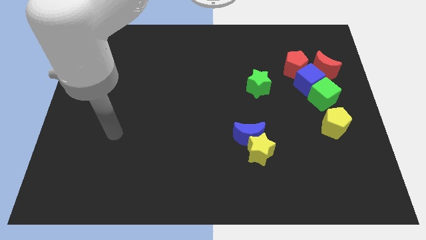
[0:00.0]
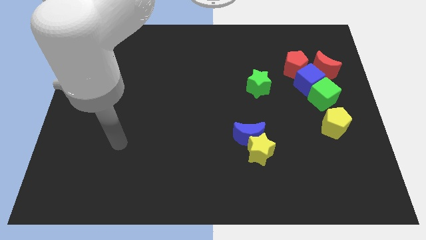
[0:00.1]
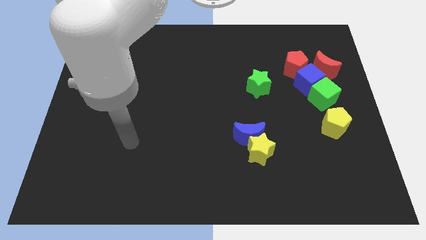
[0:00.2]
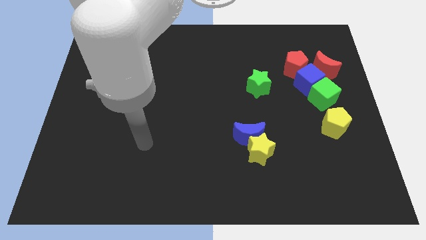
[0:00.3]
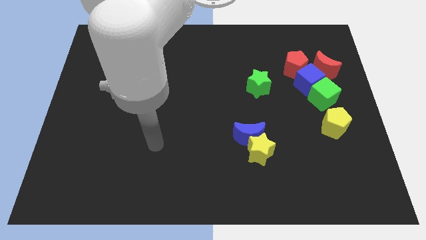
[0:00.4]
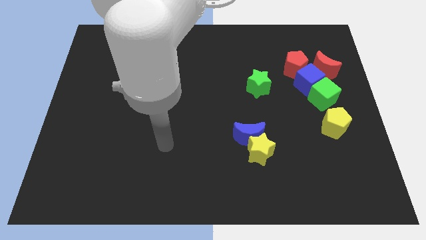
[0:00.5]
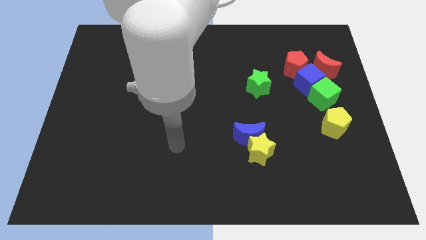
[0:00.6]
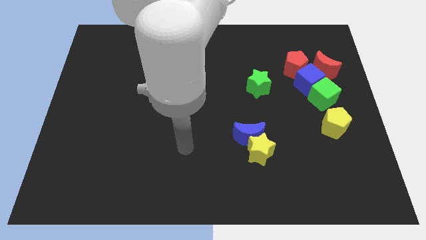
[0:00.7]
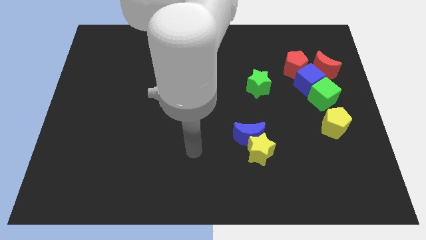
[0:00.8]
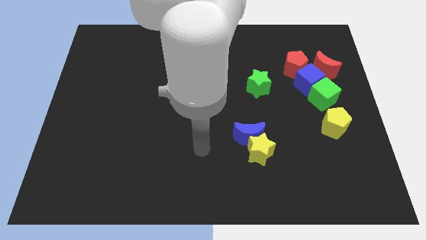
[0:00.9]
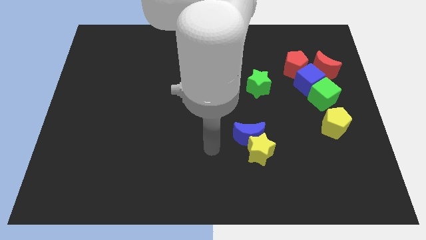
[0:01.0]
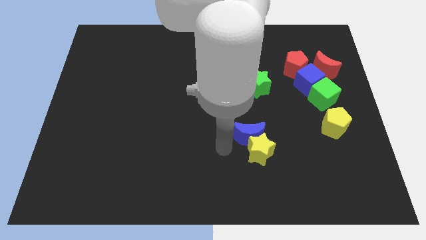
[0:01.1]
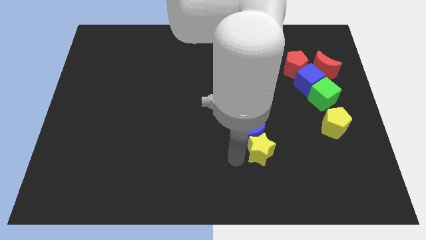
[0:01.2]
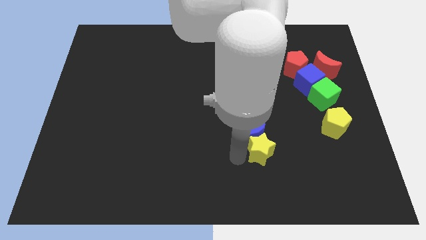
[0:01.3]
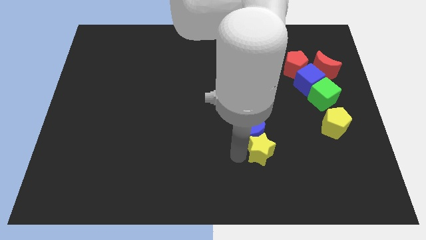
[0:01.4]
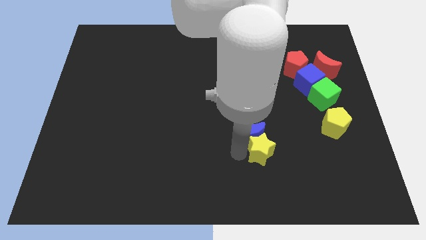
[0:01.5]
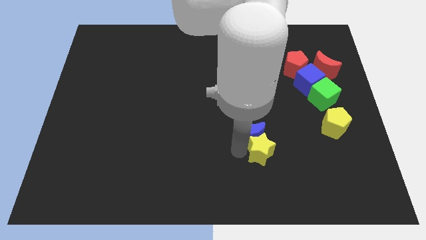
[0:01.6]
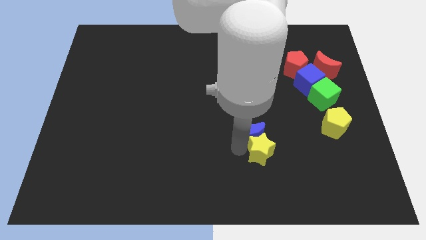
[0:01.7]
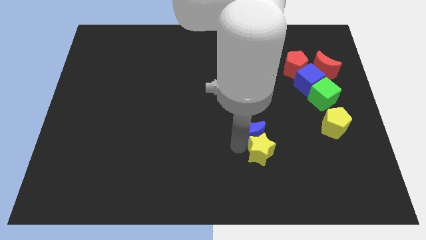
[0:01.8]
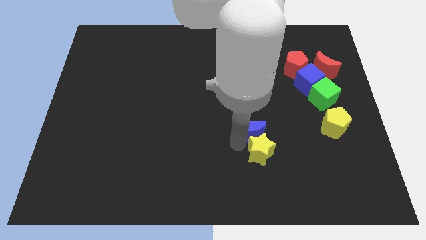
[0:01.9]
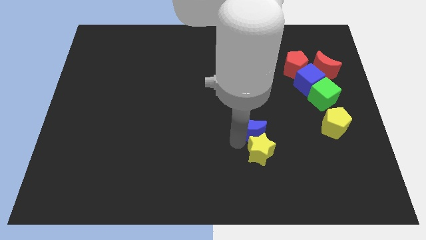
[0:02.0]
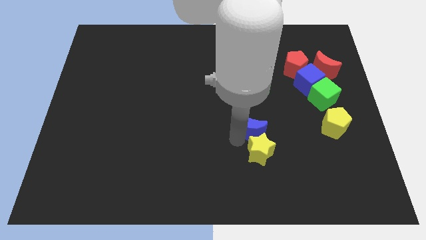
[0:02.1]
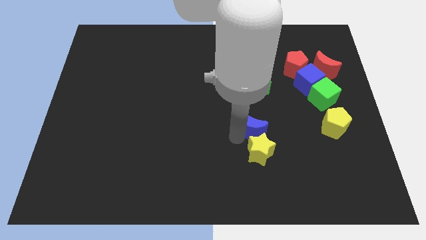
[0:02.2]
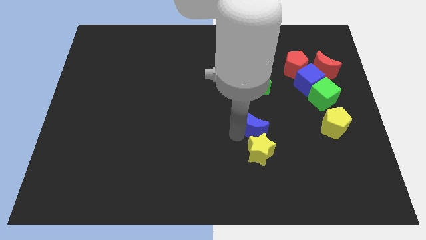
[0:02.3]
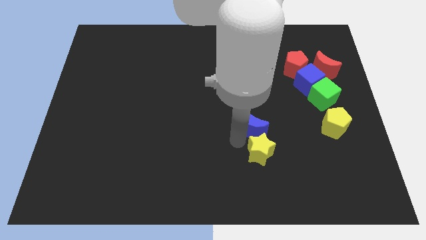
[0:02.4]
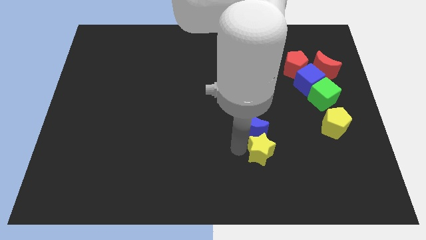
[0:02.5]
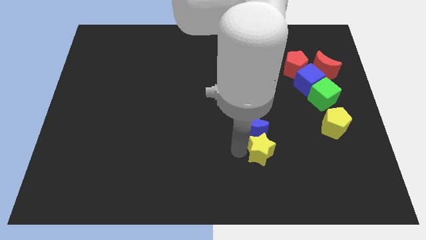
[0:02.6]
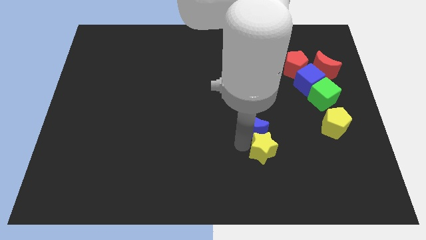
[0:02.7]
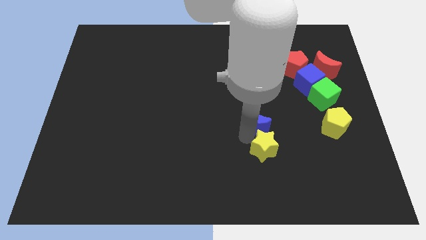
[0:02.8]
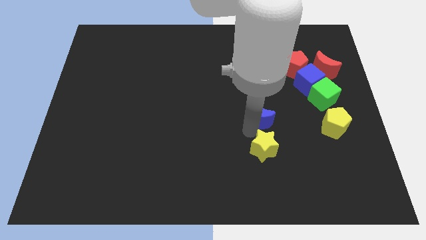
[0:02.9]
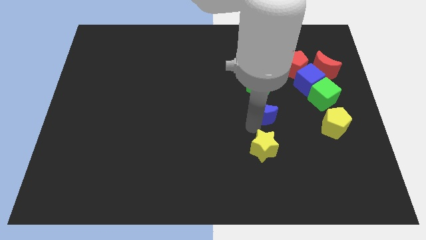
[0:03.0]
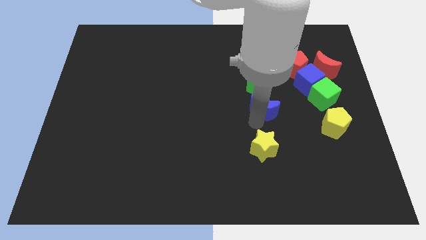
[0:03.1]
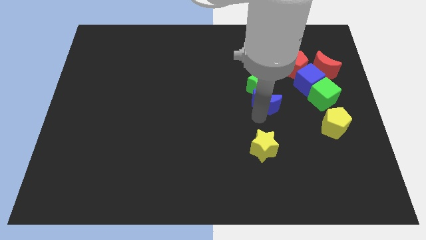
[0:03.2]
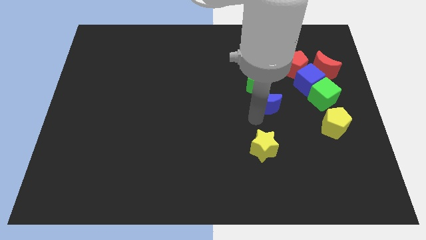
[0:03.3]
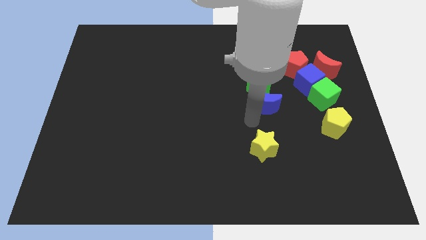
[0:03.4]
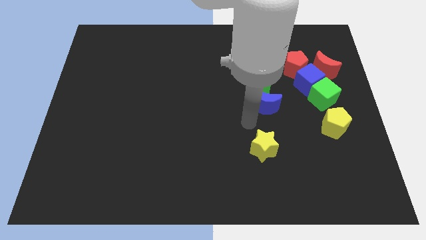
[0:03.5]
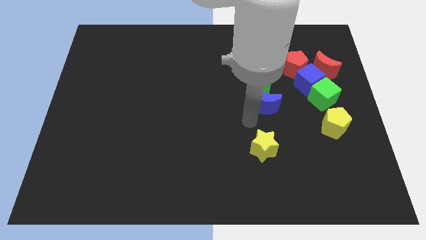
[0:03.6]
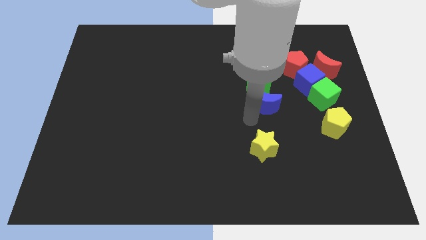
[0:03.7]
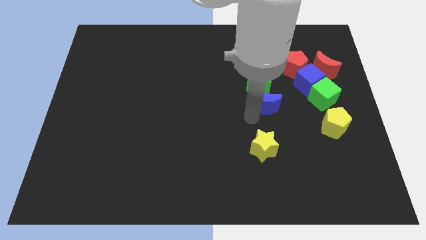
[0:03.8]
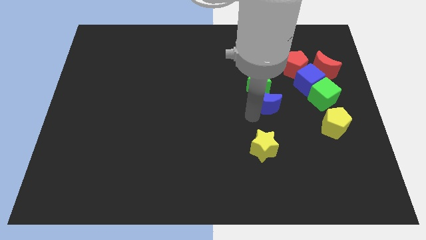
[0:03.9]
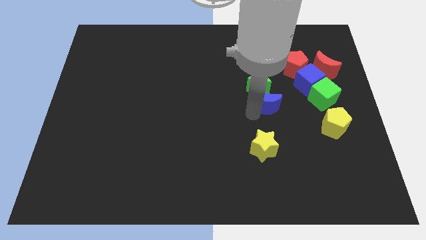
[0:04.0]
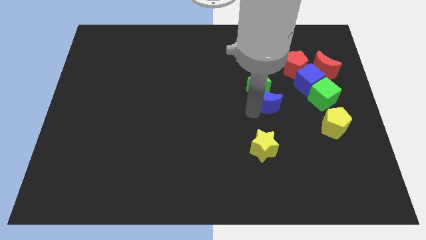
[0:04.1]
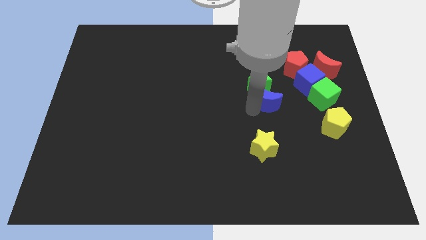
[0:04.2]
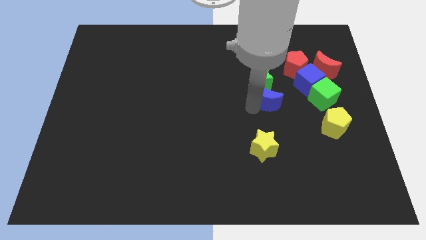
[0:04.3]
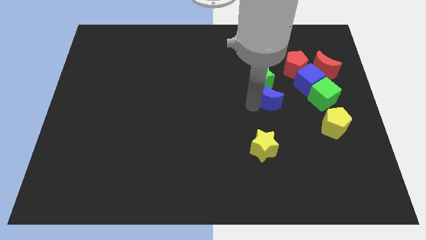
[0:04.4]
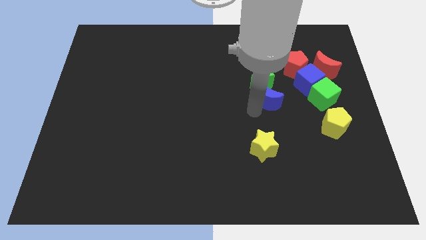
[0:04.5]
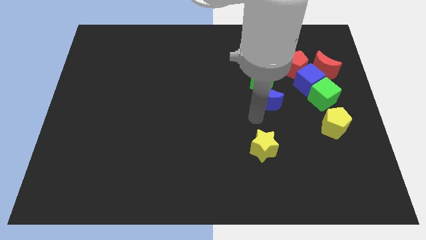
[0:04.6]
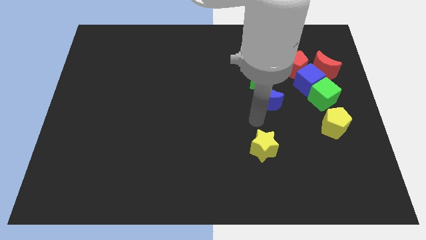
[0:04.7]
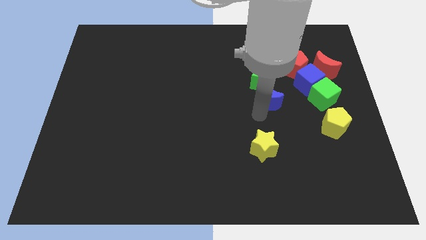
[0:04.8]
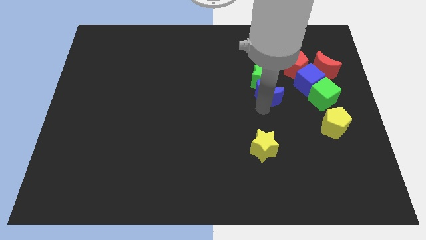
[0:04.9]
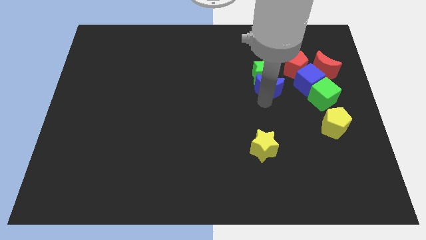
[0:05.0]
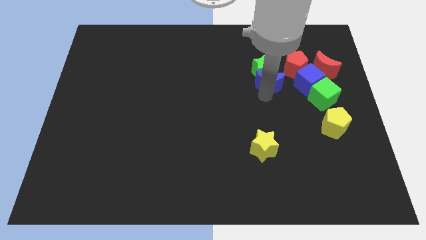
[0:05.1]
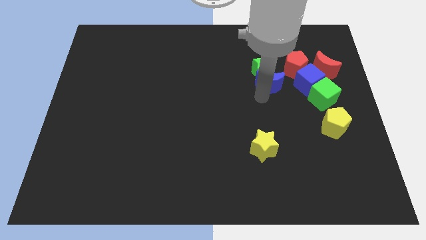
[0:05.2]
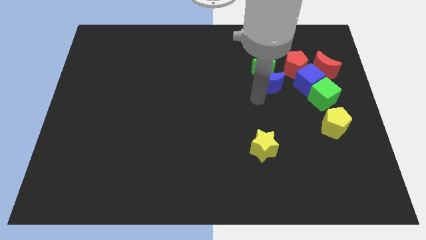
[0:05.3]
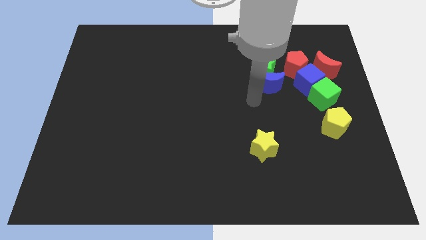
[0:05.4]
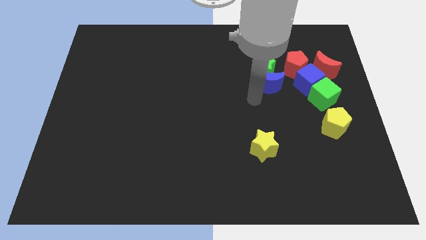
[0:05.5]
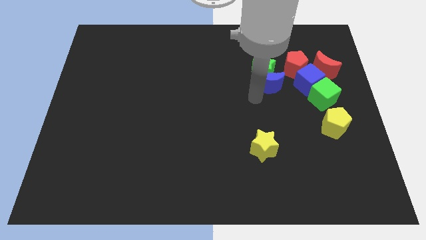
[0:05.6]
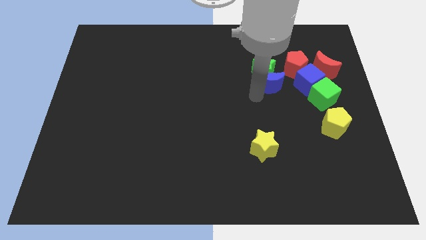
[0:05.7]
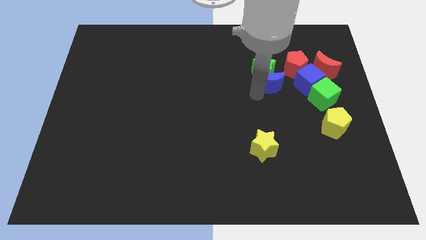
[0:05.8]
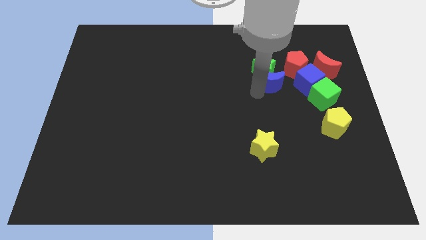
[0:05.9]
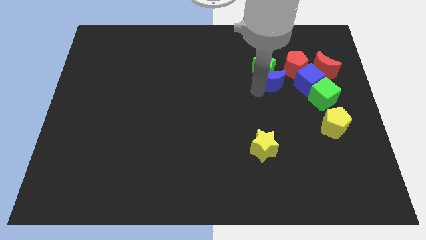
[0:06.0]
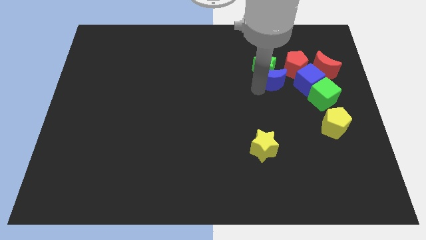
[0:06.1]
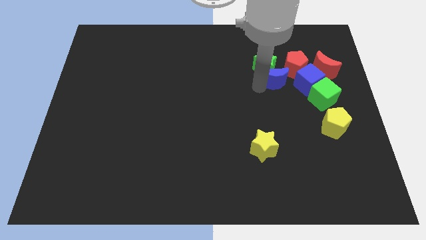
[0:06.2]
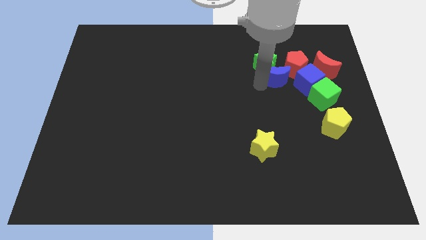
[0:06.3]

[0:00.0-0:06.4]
move the blue moon to the top left of the blue cube

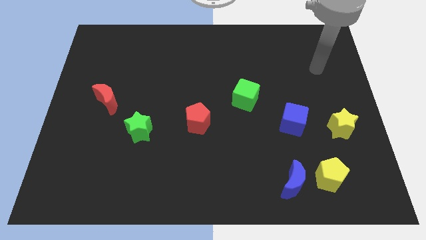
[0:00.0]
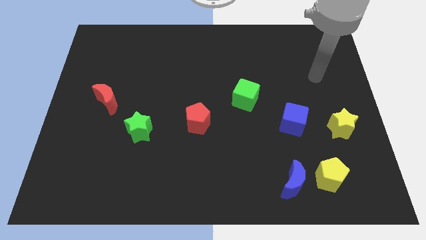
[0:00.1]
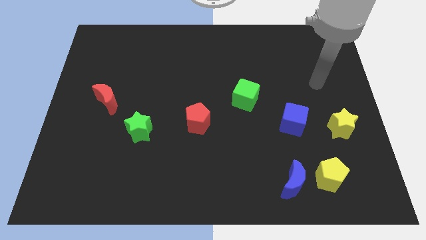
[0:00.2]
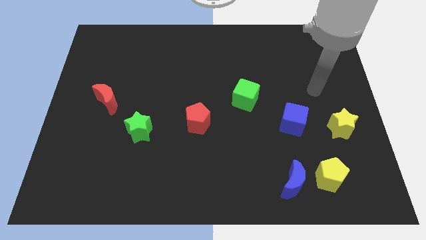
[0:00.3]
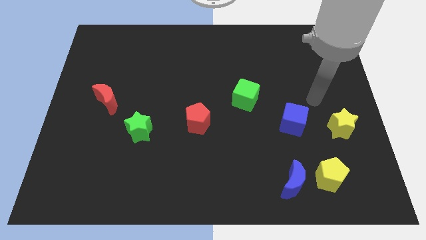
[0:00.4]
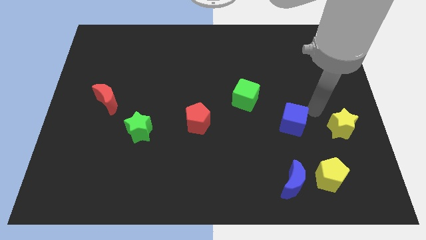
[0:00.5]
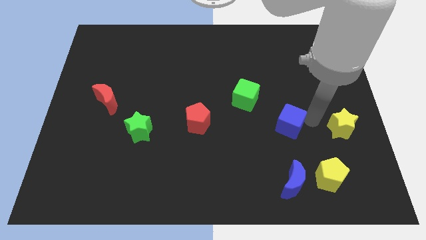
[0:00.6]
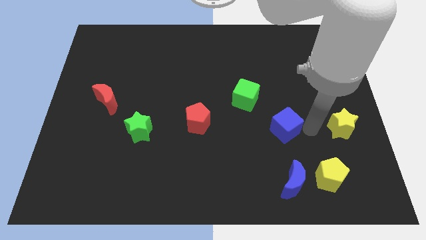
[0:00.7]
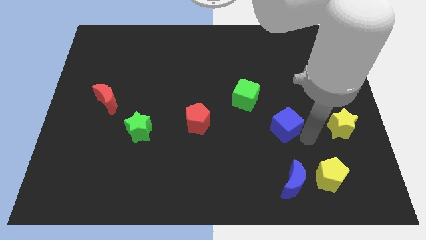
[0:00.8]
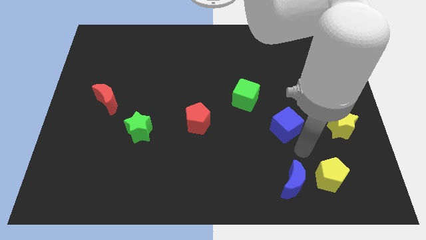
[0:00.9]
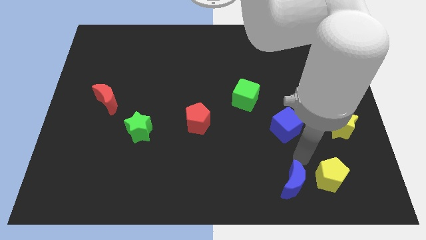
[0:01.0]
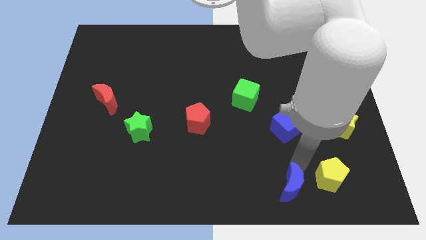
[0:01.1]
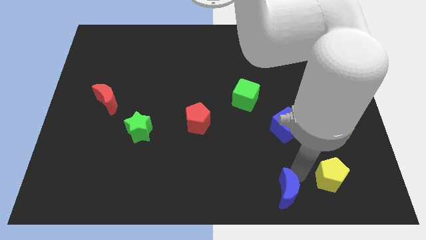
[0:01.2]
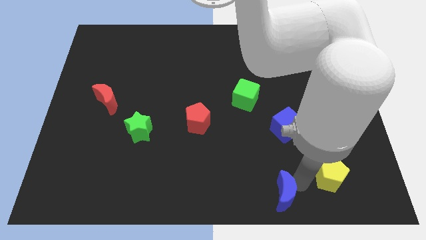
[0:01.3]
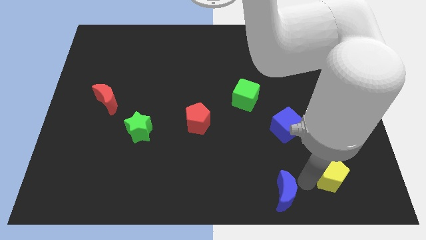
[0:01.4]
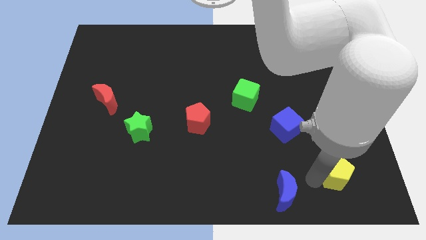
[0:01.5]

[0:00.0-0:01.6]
push the yellow pentagon to the bottom side of the yellow star
